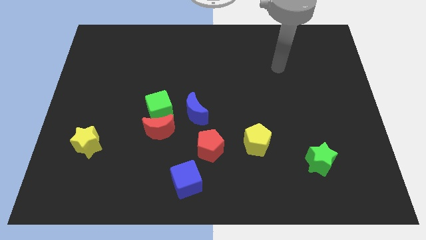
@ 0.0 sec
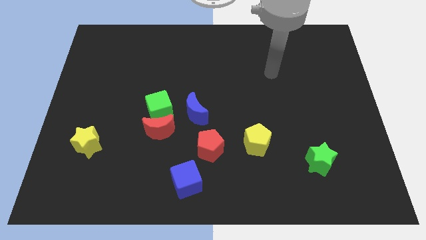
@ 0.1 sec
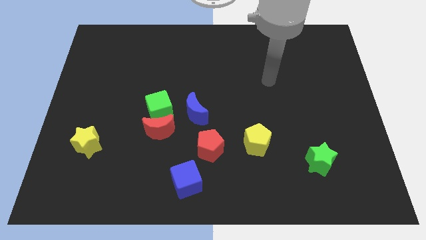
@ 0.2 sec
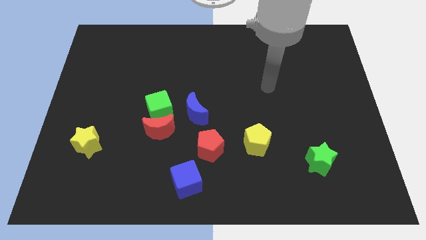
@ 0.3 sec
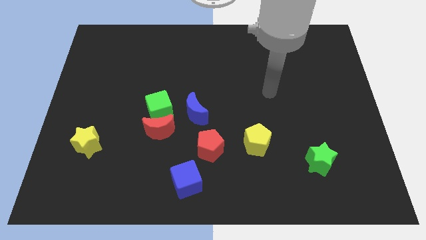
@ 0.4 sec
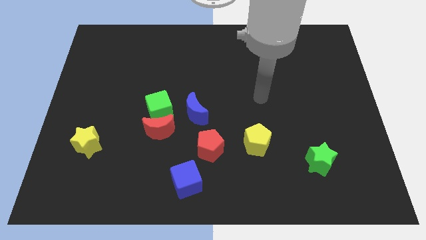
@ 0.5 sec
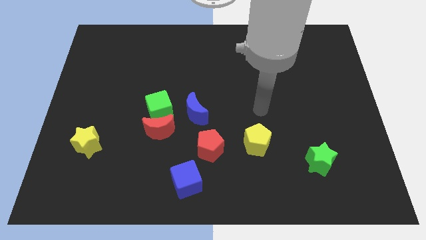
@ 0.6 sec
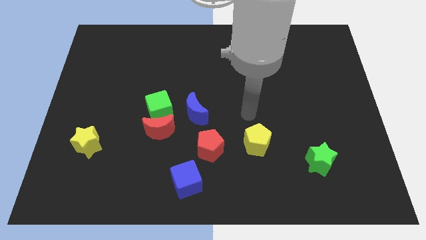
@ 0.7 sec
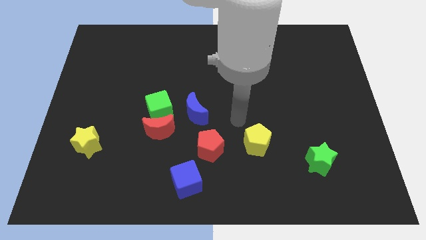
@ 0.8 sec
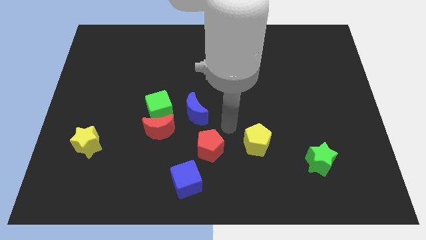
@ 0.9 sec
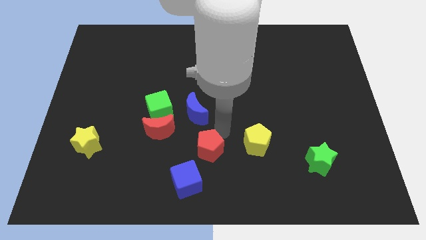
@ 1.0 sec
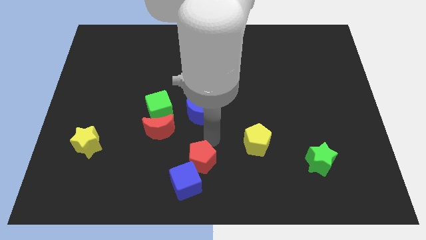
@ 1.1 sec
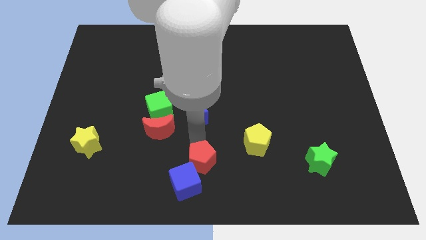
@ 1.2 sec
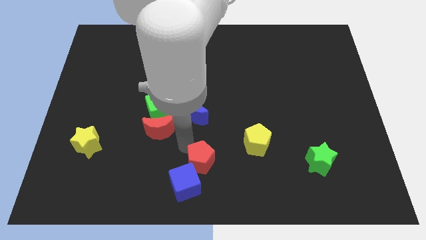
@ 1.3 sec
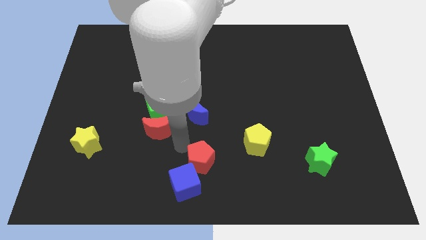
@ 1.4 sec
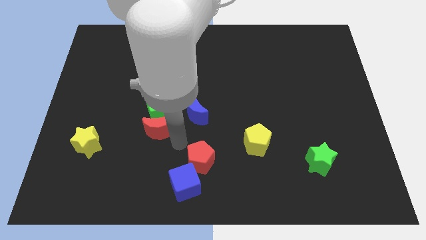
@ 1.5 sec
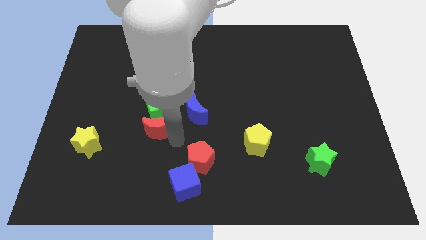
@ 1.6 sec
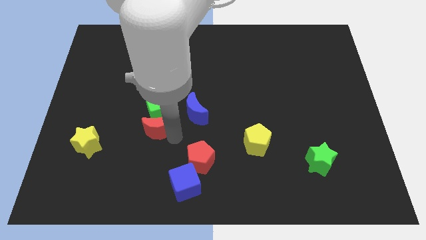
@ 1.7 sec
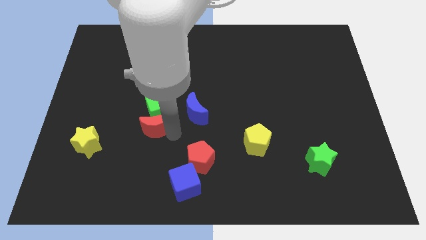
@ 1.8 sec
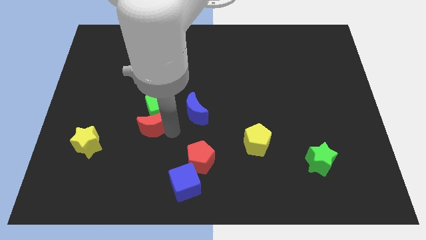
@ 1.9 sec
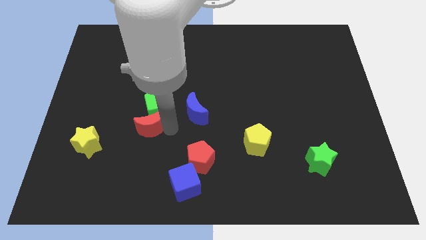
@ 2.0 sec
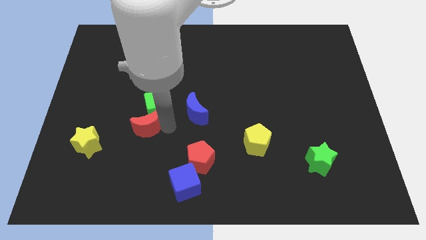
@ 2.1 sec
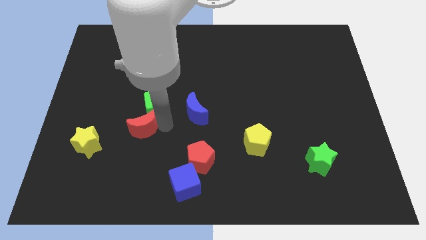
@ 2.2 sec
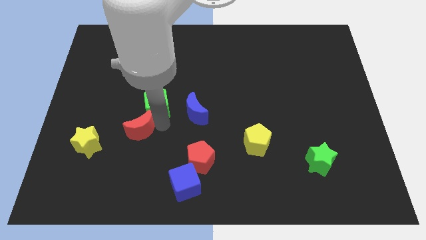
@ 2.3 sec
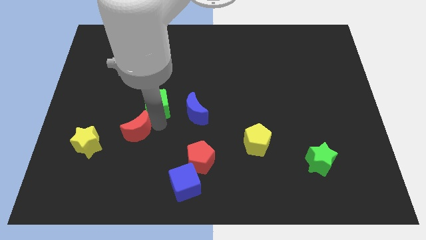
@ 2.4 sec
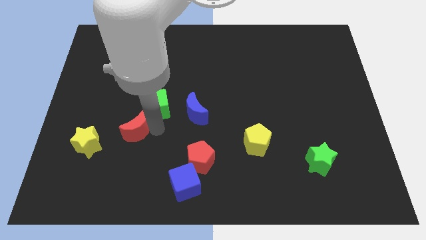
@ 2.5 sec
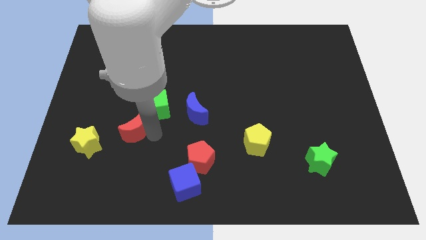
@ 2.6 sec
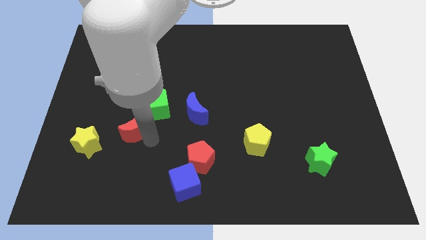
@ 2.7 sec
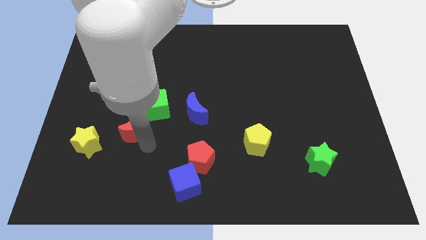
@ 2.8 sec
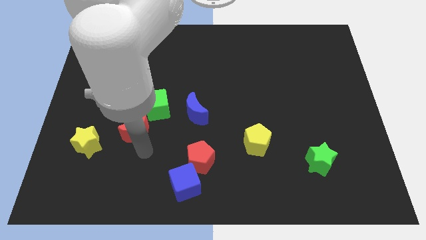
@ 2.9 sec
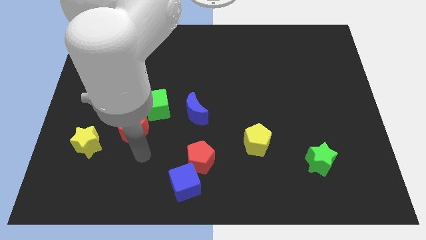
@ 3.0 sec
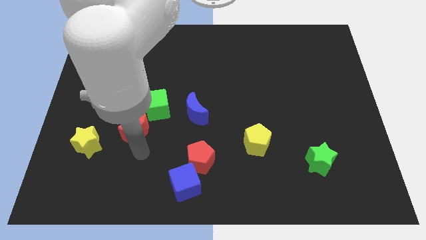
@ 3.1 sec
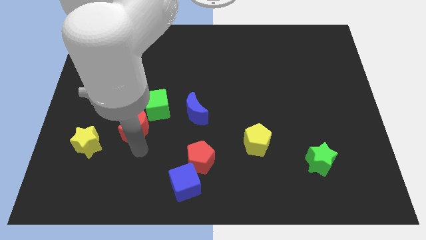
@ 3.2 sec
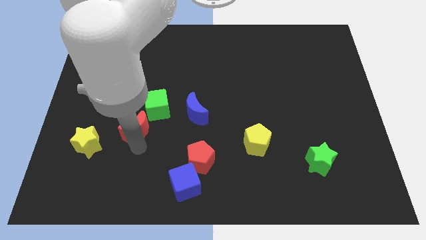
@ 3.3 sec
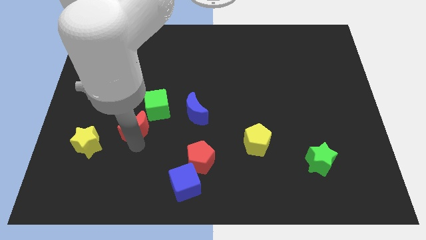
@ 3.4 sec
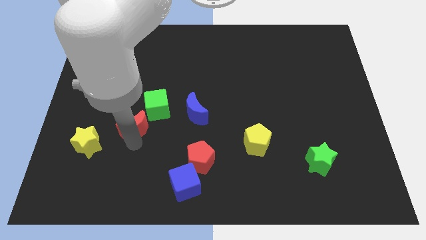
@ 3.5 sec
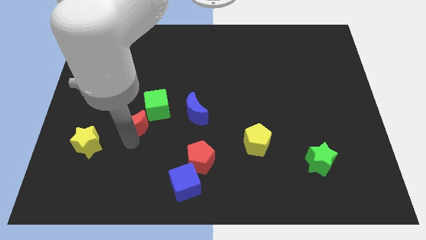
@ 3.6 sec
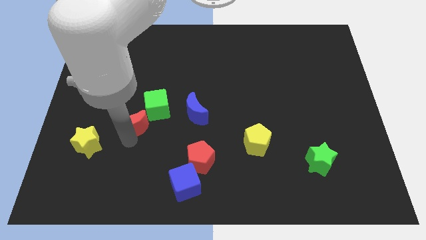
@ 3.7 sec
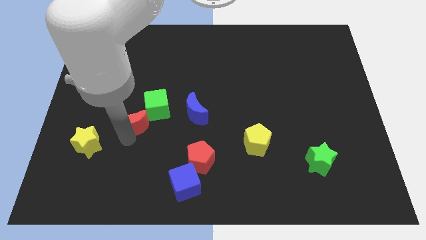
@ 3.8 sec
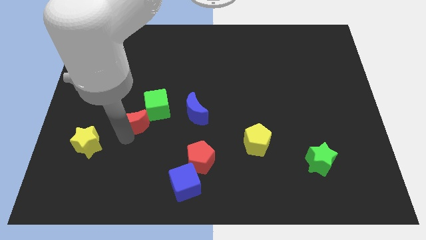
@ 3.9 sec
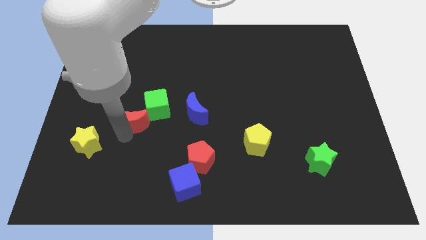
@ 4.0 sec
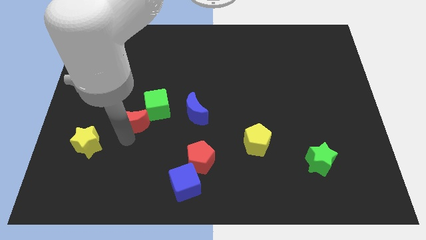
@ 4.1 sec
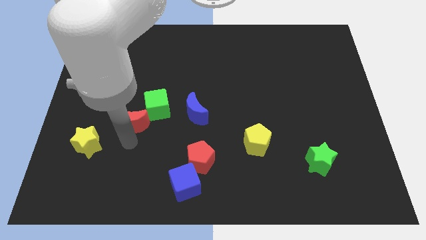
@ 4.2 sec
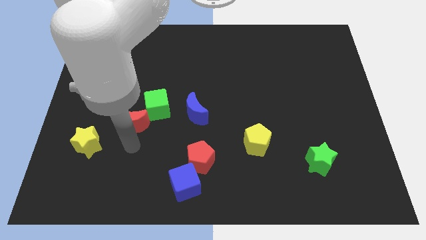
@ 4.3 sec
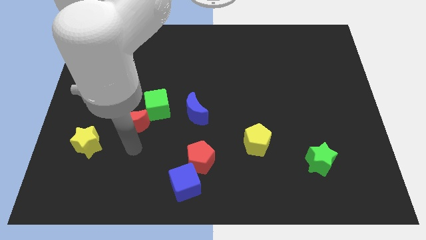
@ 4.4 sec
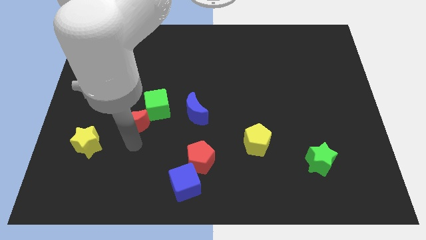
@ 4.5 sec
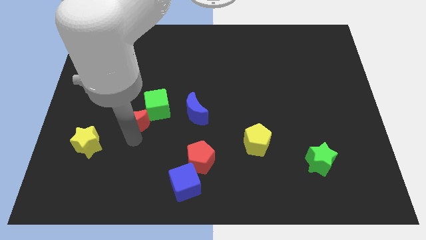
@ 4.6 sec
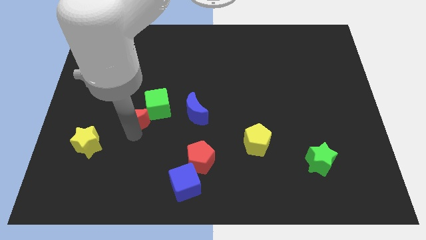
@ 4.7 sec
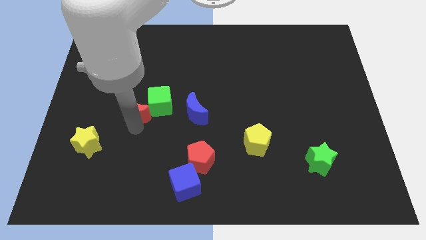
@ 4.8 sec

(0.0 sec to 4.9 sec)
move the red moon somewhat upwards and left

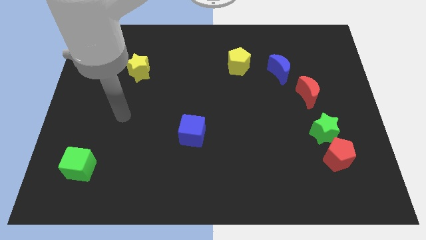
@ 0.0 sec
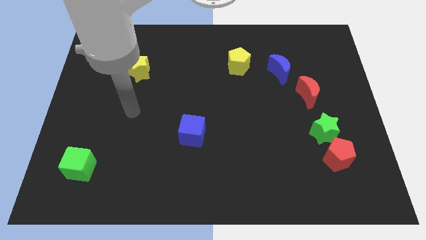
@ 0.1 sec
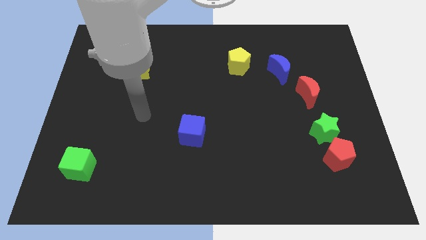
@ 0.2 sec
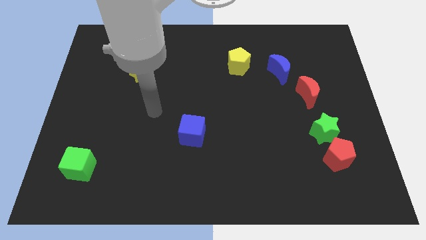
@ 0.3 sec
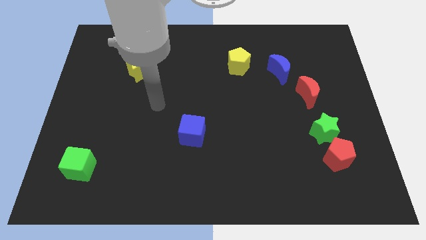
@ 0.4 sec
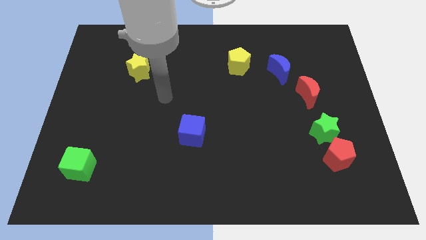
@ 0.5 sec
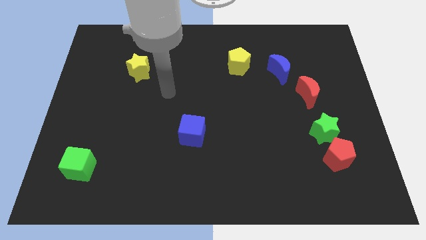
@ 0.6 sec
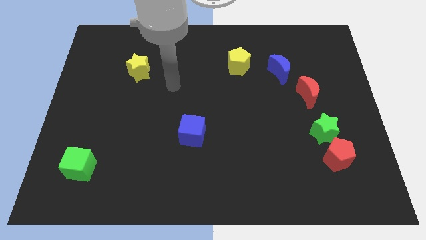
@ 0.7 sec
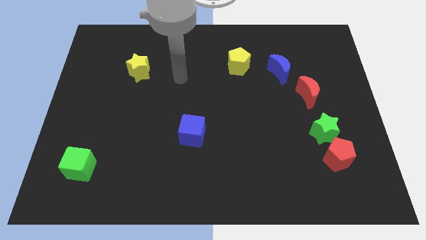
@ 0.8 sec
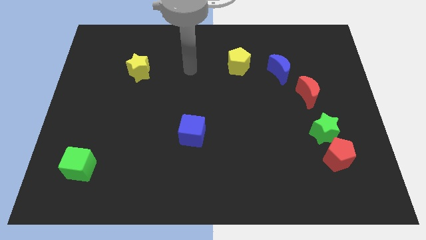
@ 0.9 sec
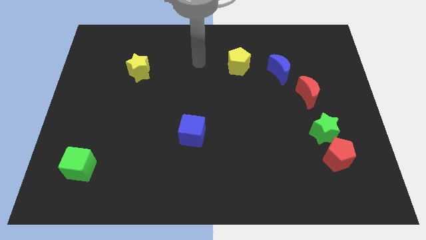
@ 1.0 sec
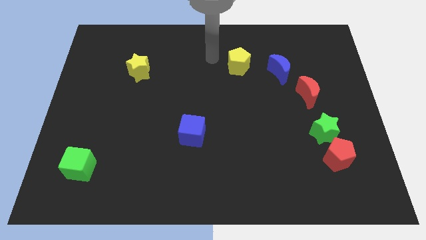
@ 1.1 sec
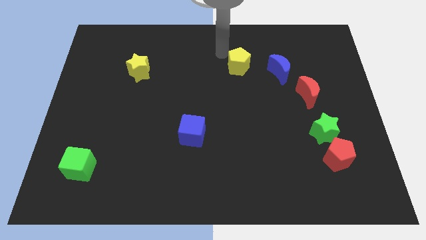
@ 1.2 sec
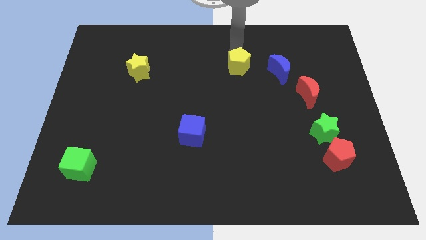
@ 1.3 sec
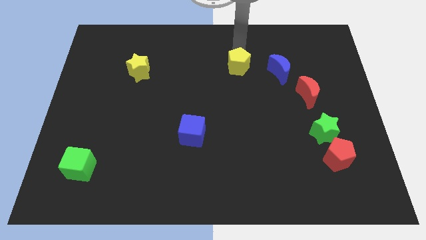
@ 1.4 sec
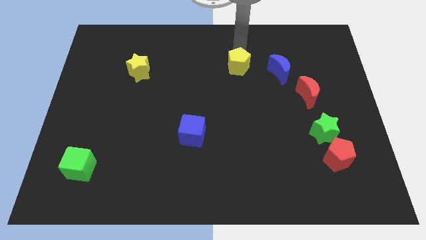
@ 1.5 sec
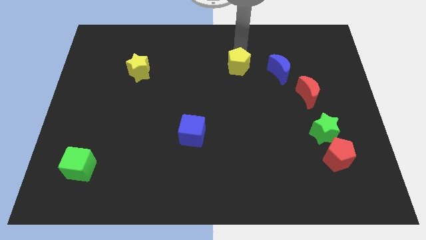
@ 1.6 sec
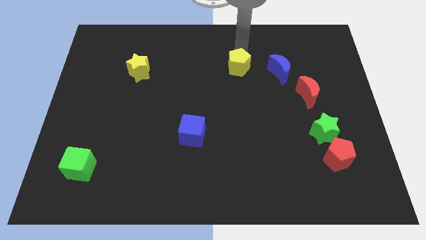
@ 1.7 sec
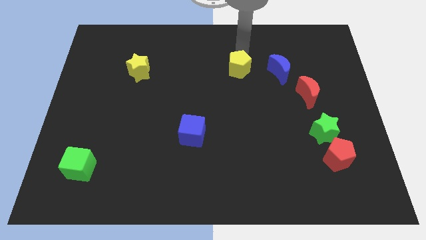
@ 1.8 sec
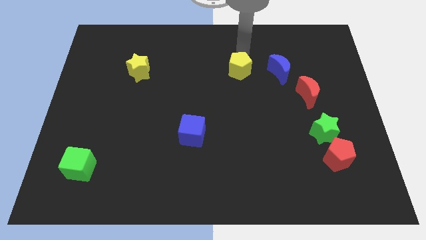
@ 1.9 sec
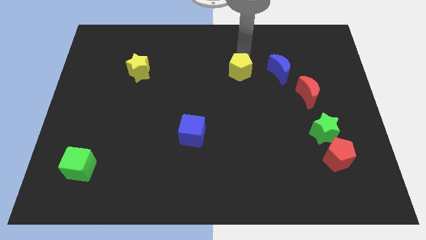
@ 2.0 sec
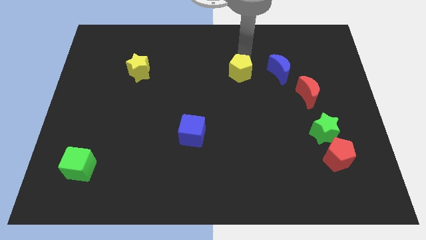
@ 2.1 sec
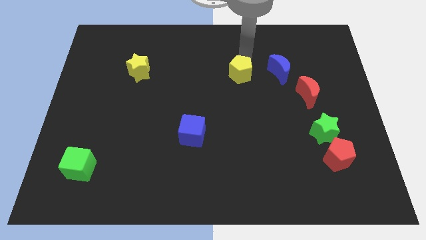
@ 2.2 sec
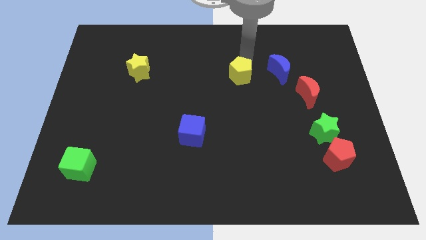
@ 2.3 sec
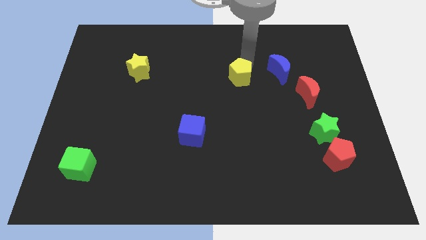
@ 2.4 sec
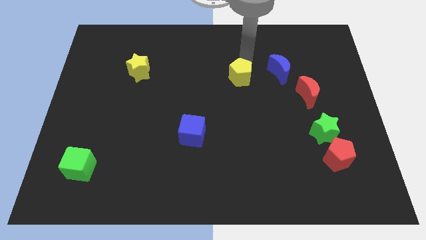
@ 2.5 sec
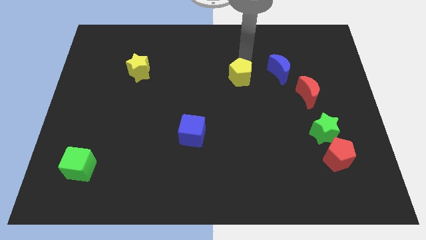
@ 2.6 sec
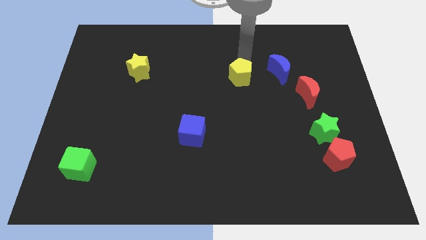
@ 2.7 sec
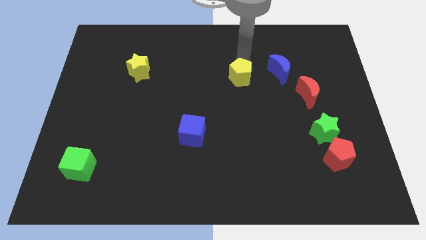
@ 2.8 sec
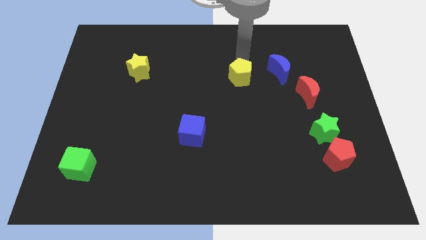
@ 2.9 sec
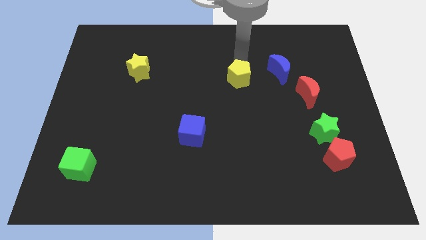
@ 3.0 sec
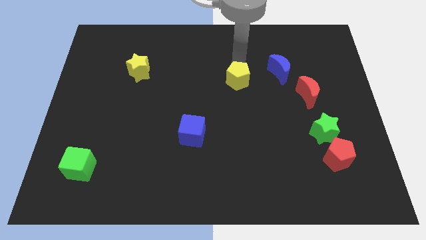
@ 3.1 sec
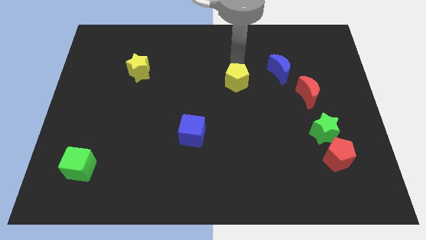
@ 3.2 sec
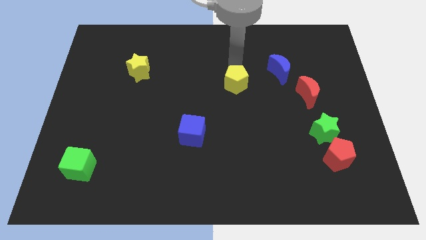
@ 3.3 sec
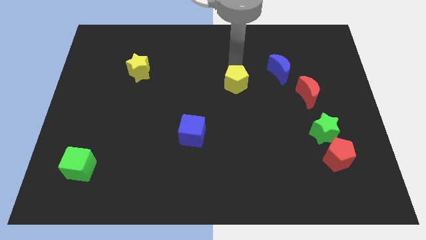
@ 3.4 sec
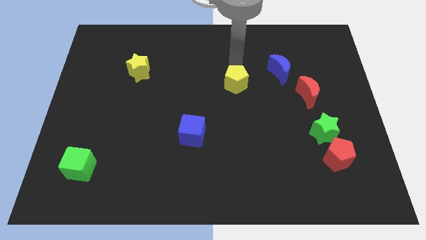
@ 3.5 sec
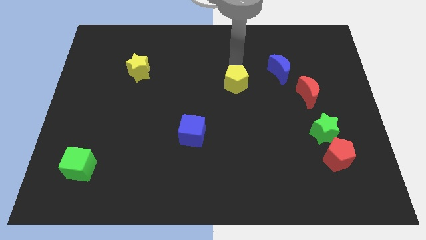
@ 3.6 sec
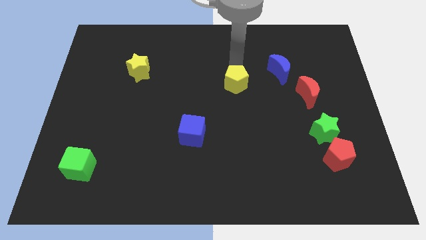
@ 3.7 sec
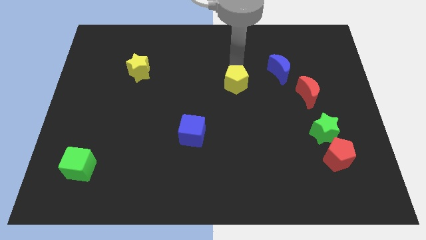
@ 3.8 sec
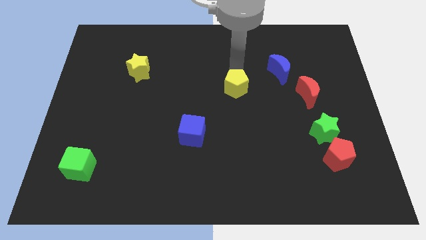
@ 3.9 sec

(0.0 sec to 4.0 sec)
push the yellow pentagon downwards somewhat
